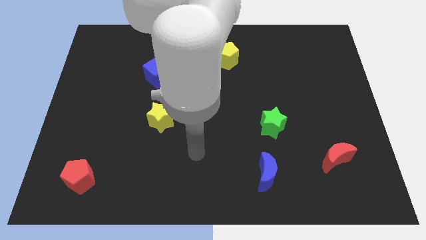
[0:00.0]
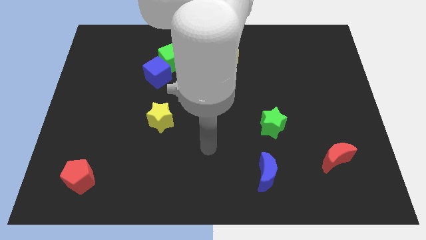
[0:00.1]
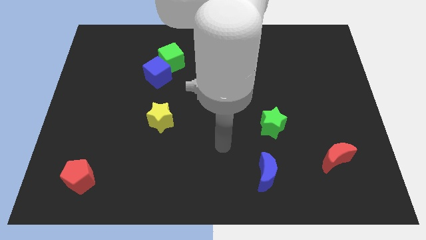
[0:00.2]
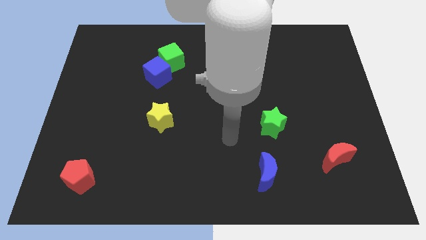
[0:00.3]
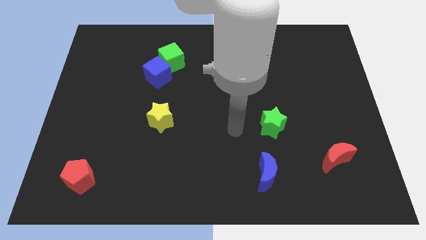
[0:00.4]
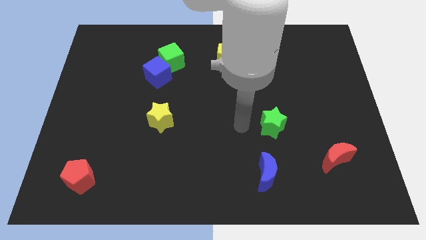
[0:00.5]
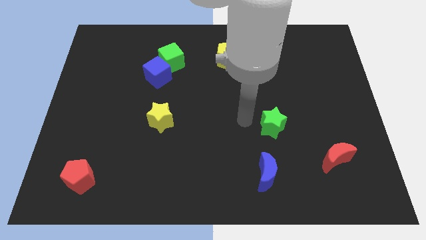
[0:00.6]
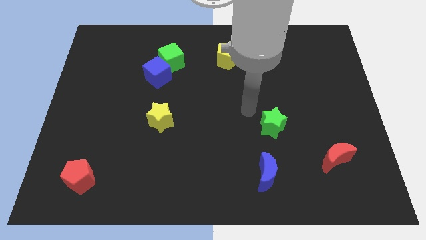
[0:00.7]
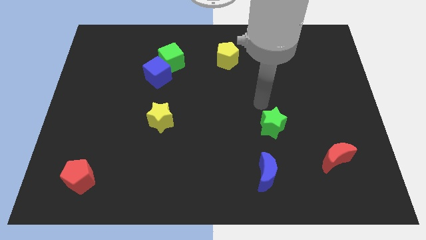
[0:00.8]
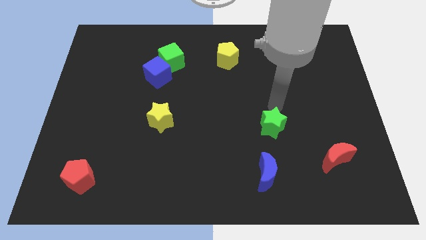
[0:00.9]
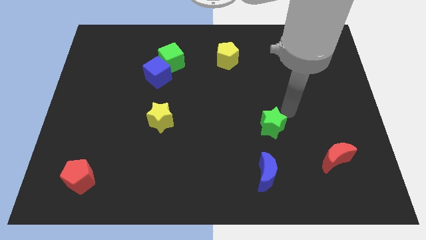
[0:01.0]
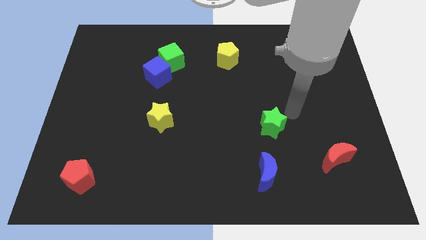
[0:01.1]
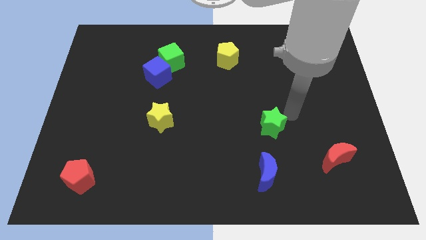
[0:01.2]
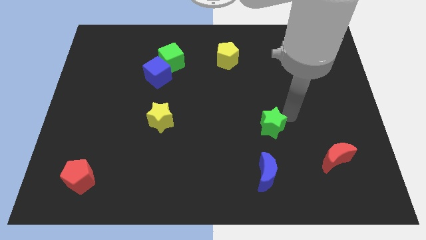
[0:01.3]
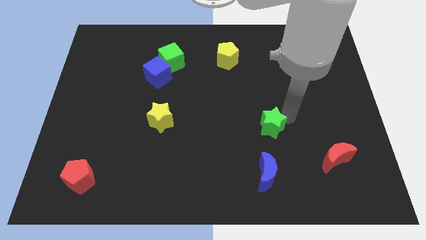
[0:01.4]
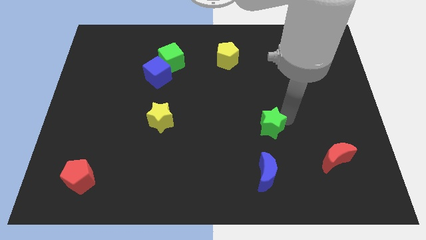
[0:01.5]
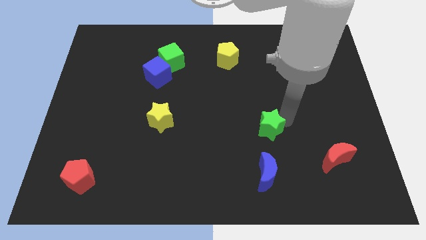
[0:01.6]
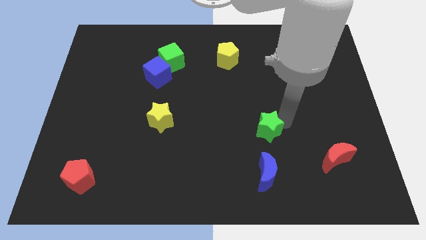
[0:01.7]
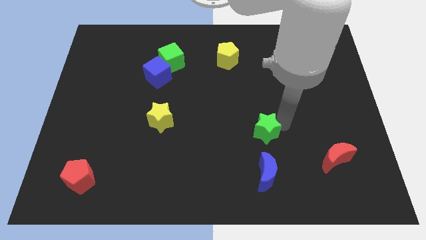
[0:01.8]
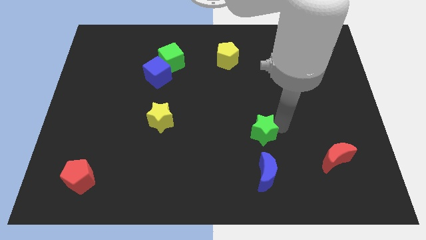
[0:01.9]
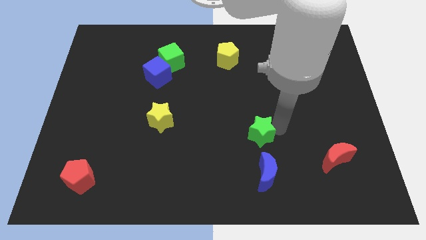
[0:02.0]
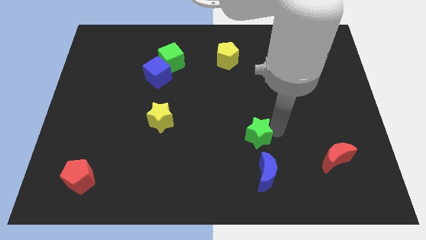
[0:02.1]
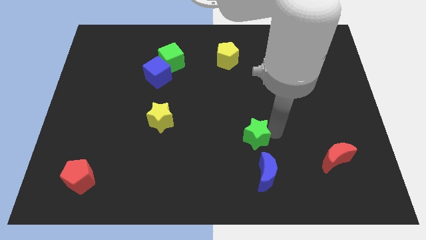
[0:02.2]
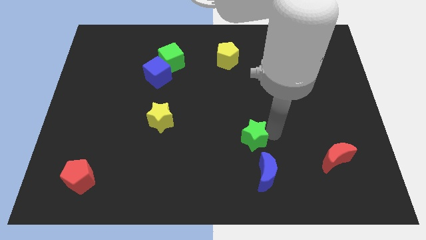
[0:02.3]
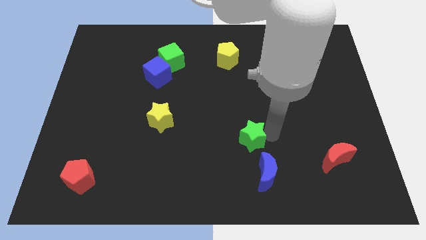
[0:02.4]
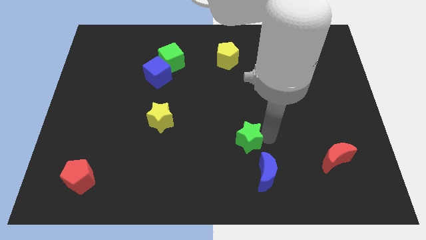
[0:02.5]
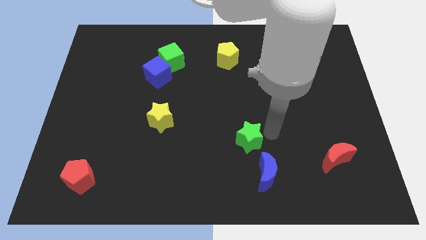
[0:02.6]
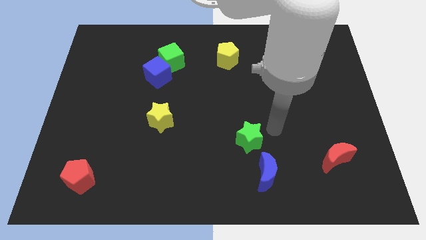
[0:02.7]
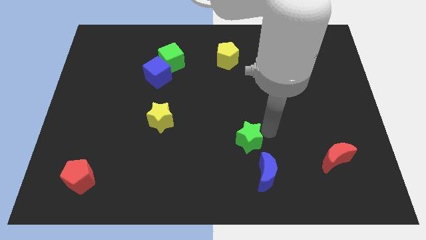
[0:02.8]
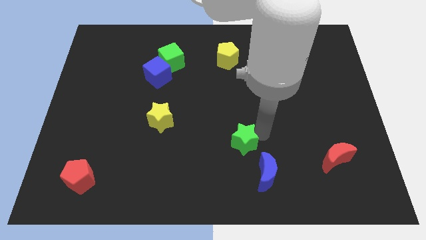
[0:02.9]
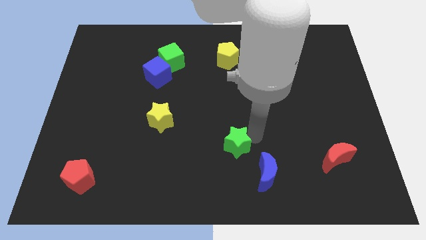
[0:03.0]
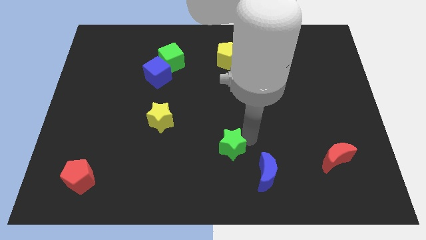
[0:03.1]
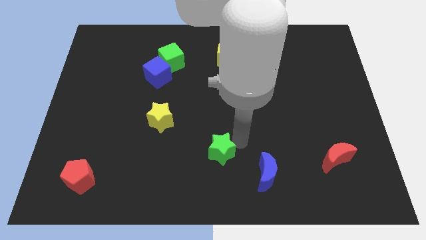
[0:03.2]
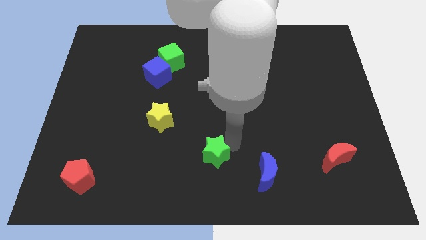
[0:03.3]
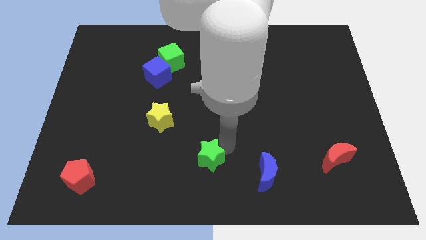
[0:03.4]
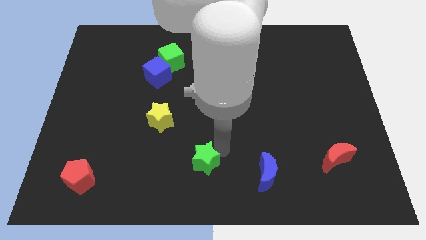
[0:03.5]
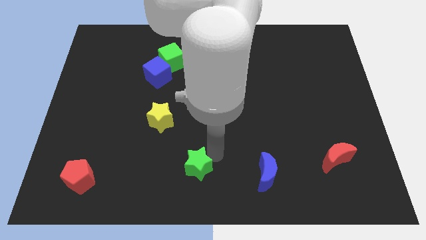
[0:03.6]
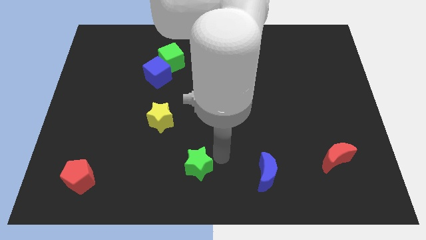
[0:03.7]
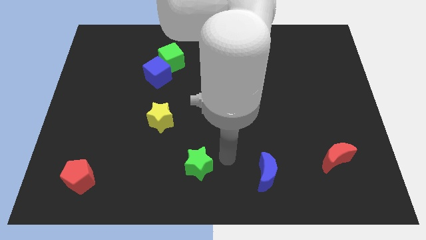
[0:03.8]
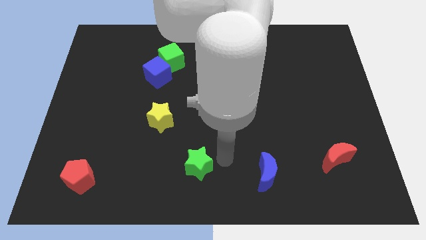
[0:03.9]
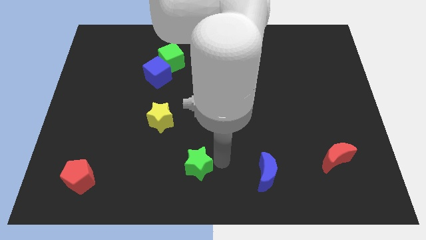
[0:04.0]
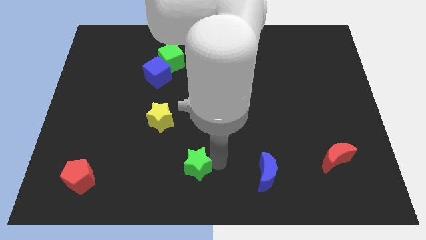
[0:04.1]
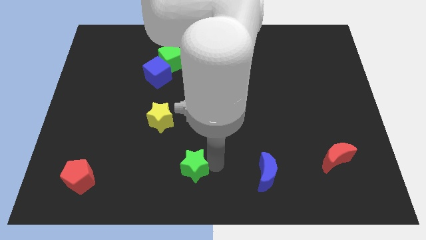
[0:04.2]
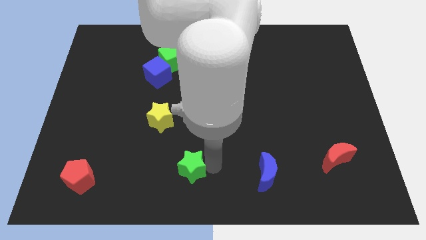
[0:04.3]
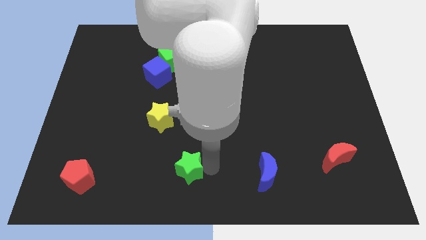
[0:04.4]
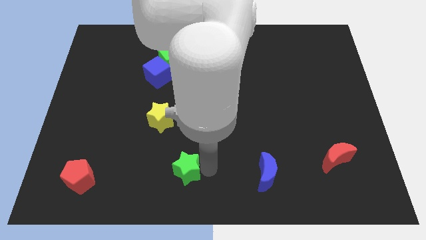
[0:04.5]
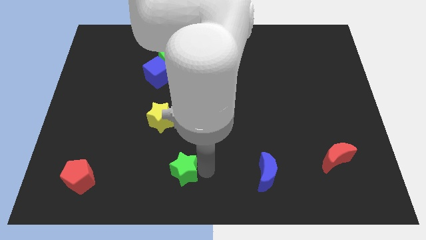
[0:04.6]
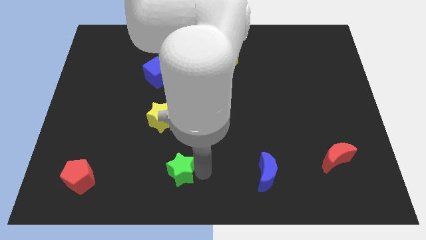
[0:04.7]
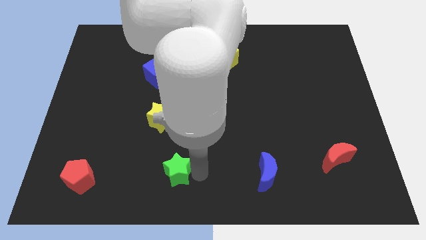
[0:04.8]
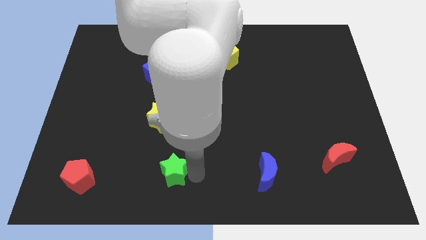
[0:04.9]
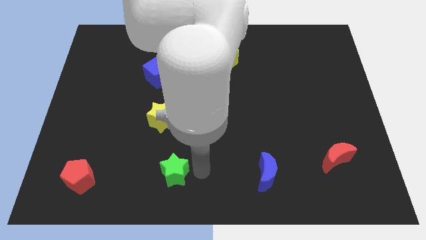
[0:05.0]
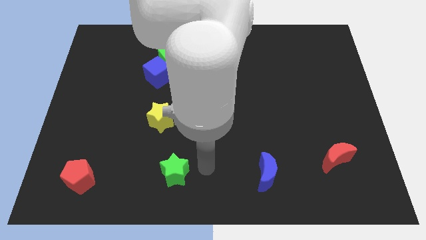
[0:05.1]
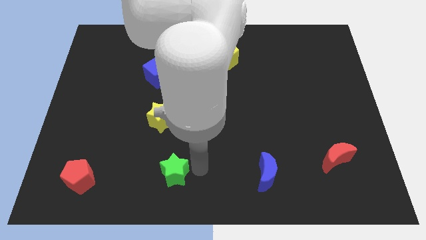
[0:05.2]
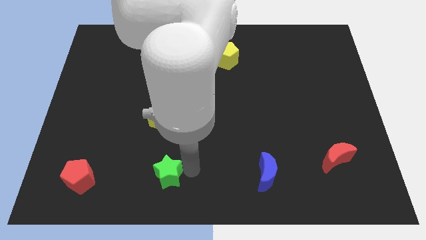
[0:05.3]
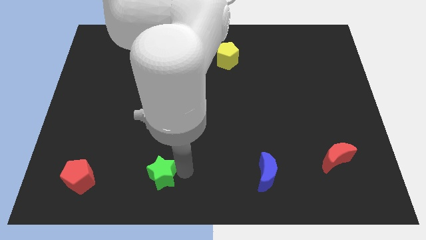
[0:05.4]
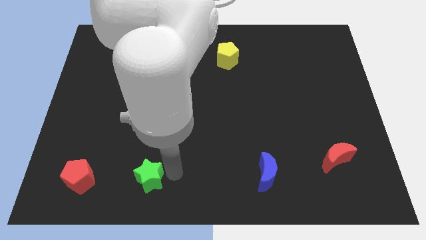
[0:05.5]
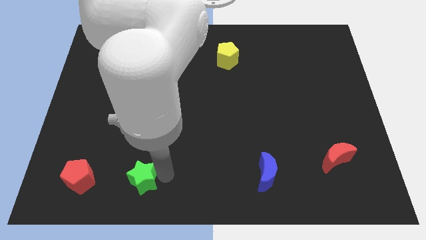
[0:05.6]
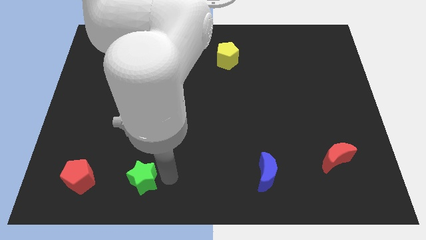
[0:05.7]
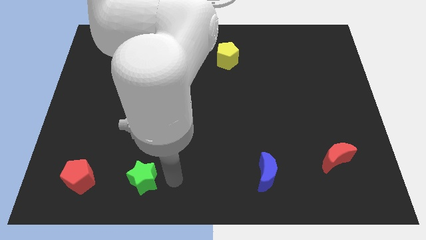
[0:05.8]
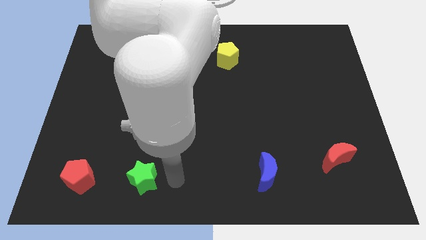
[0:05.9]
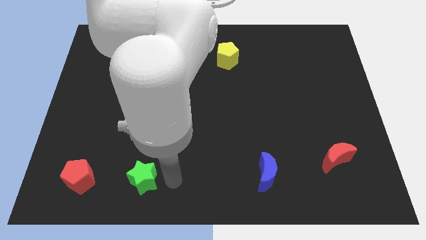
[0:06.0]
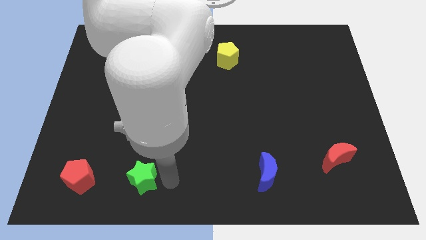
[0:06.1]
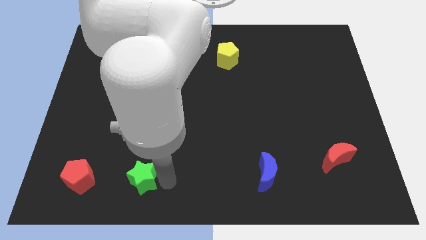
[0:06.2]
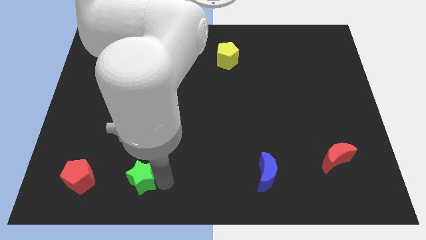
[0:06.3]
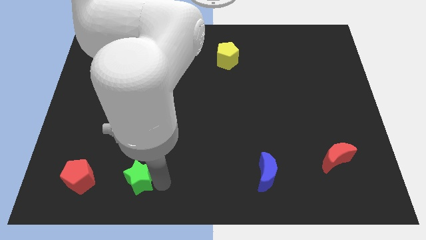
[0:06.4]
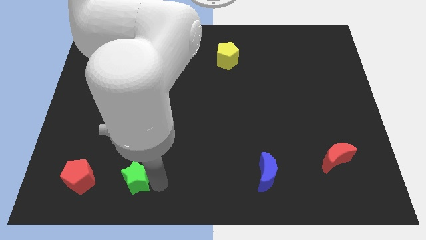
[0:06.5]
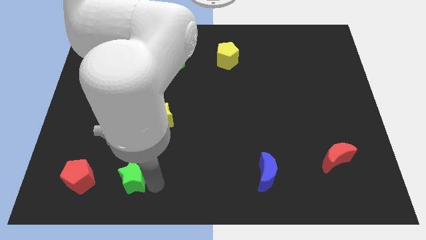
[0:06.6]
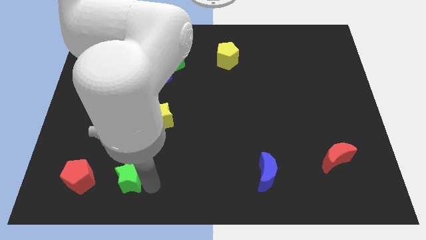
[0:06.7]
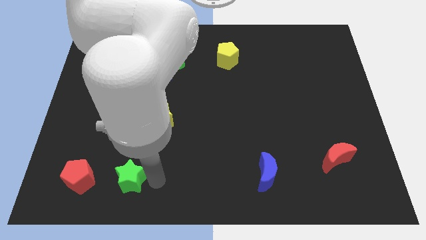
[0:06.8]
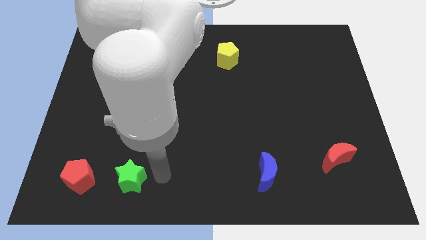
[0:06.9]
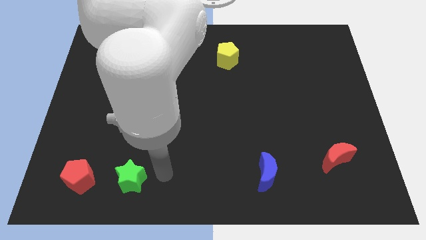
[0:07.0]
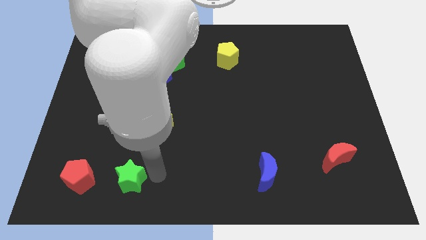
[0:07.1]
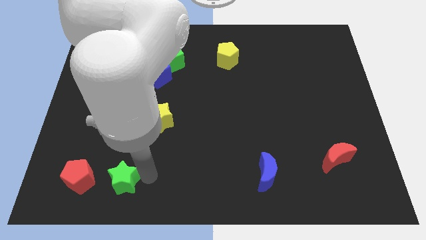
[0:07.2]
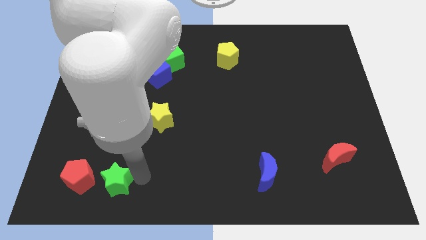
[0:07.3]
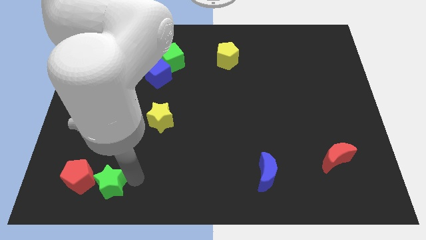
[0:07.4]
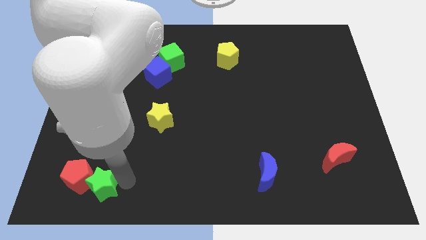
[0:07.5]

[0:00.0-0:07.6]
move the green star towards the red pentagon
